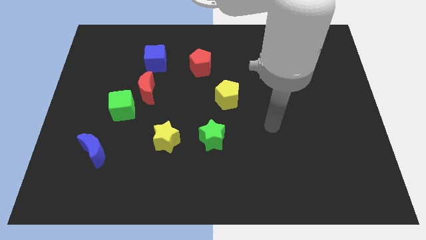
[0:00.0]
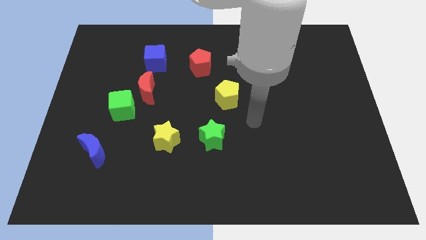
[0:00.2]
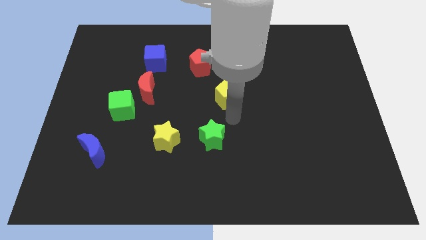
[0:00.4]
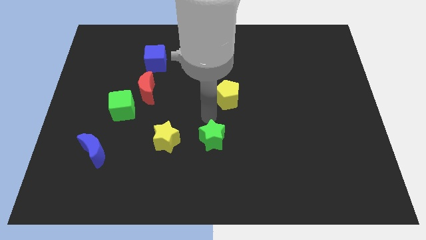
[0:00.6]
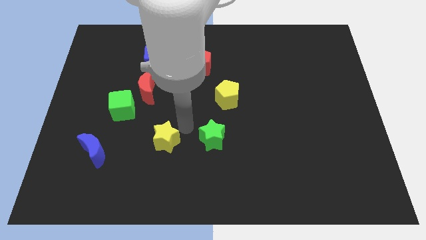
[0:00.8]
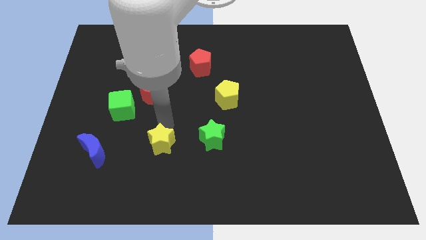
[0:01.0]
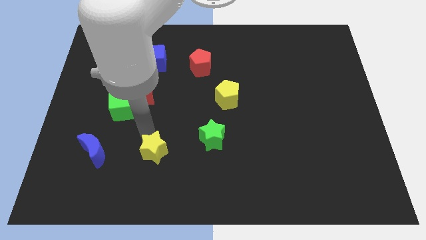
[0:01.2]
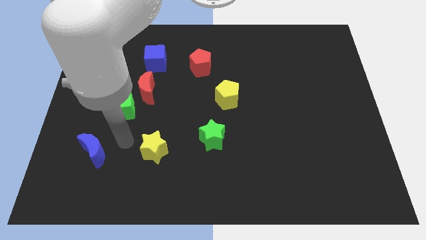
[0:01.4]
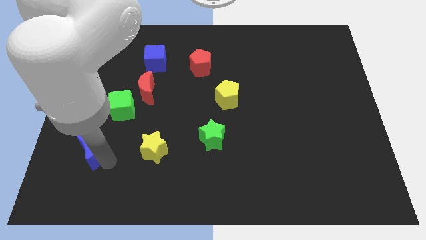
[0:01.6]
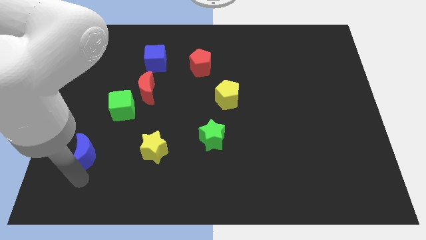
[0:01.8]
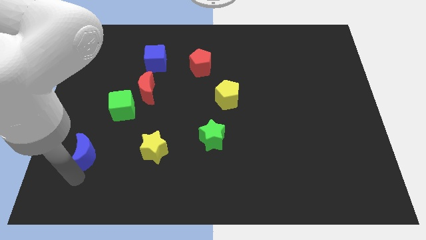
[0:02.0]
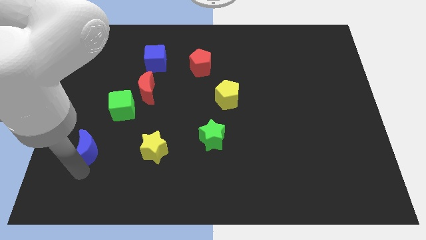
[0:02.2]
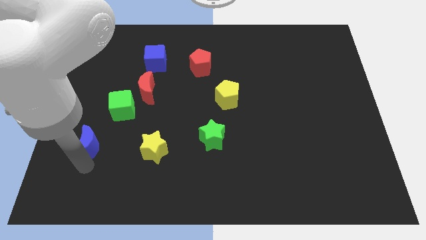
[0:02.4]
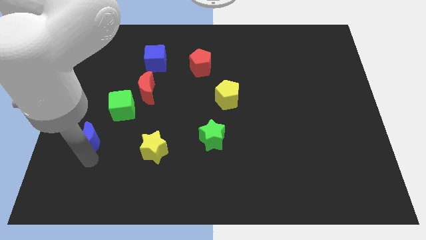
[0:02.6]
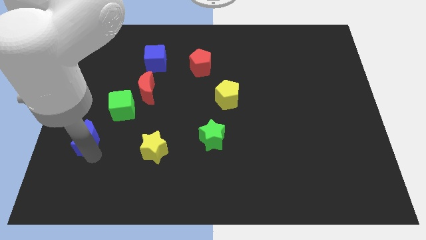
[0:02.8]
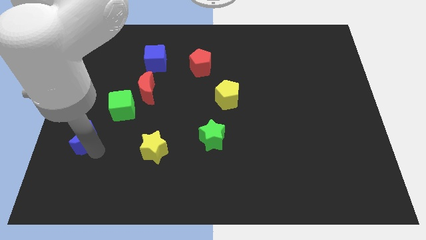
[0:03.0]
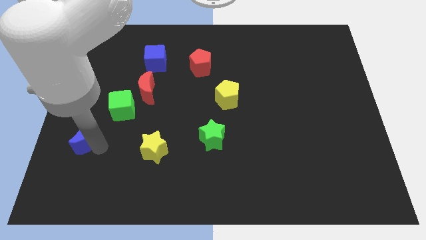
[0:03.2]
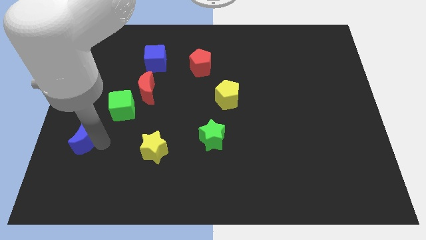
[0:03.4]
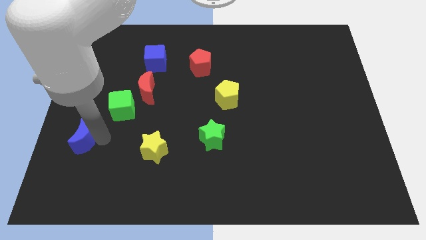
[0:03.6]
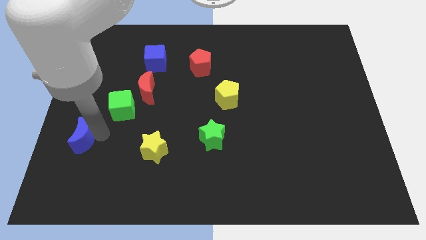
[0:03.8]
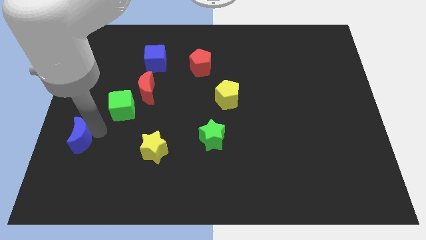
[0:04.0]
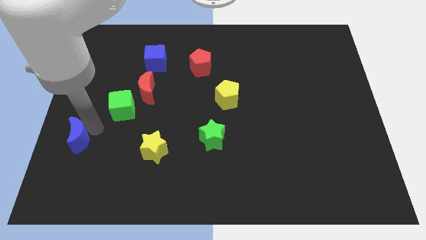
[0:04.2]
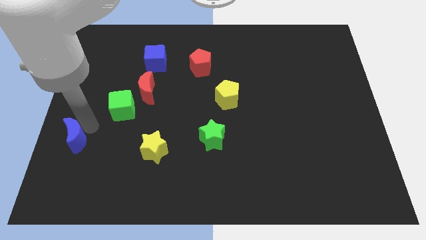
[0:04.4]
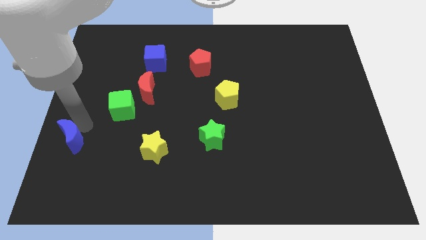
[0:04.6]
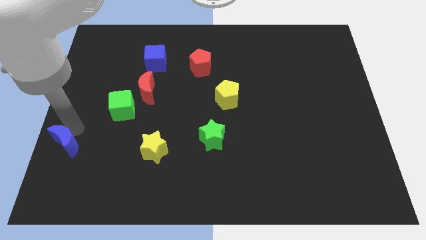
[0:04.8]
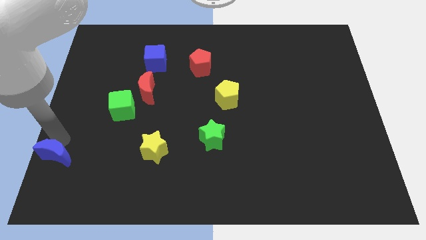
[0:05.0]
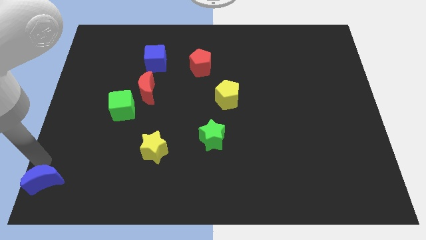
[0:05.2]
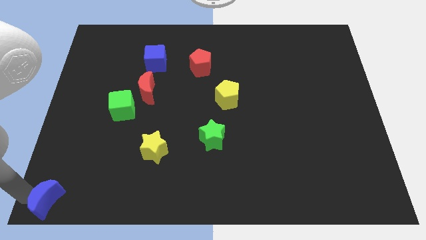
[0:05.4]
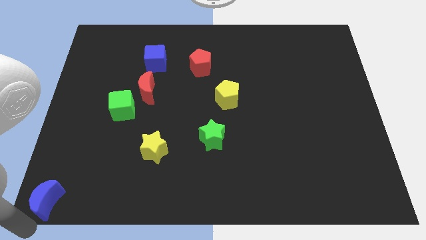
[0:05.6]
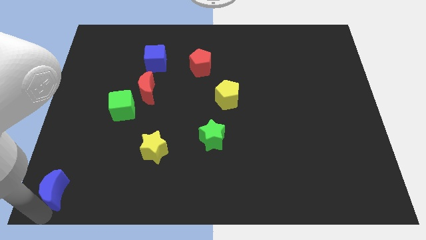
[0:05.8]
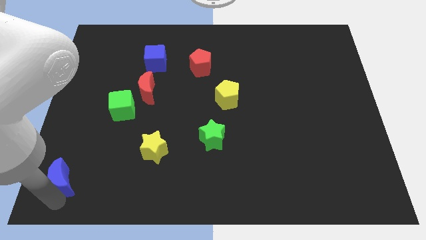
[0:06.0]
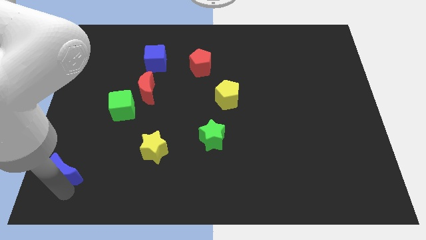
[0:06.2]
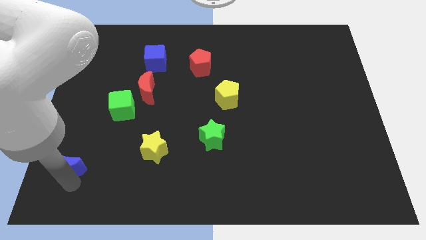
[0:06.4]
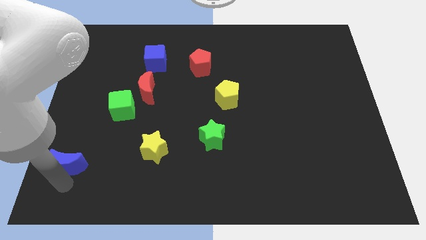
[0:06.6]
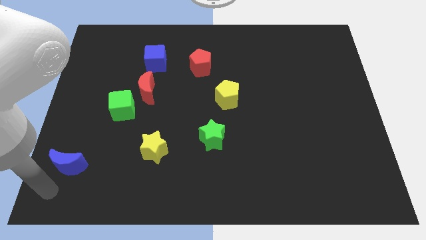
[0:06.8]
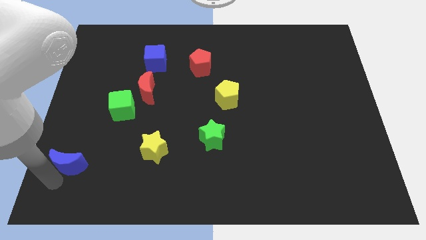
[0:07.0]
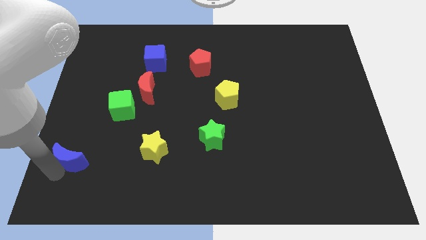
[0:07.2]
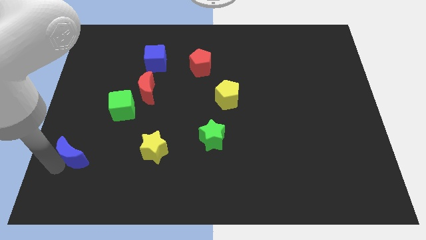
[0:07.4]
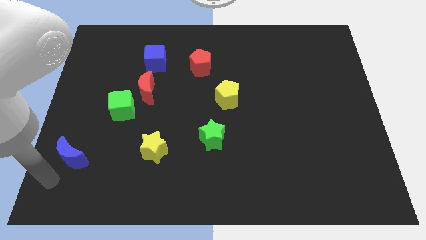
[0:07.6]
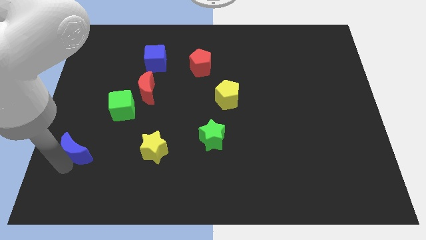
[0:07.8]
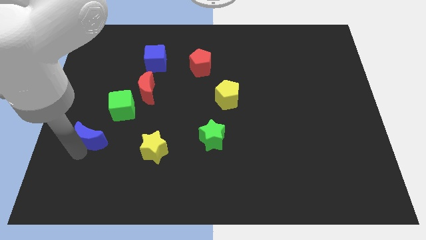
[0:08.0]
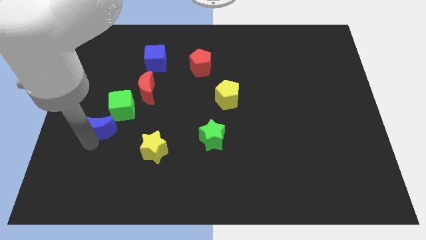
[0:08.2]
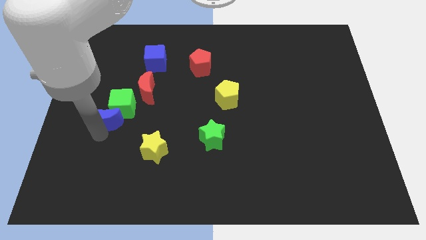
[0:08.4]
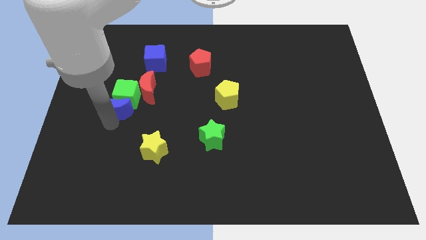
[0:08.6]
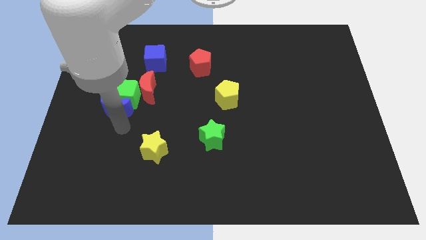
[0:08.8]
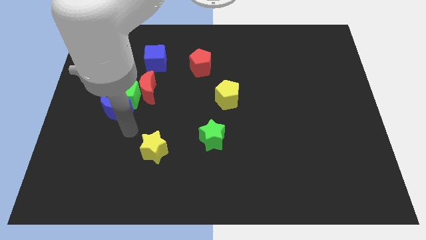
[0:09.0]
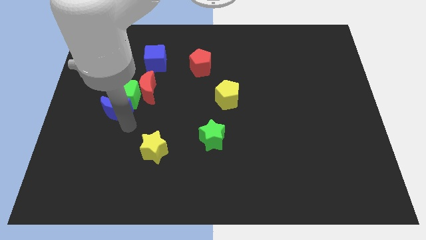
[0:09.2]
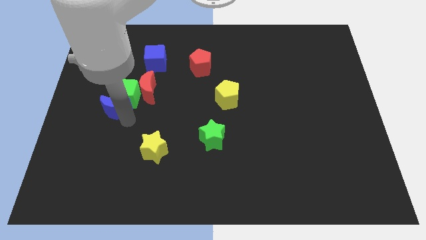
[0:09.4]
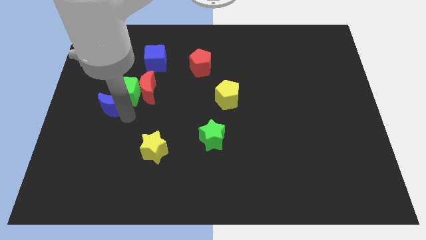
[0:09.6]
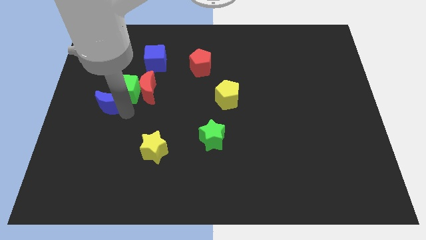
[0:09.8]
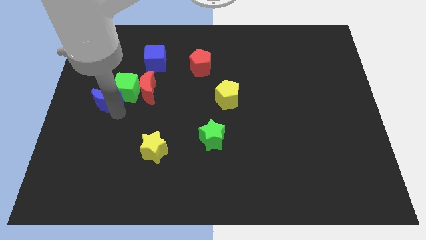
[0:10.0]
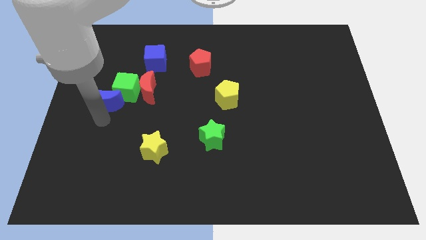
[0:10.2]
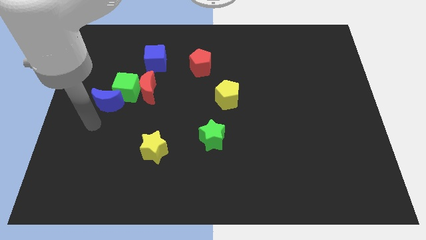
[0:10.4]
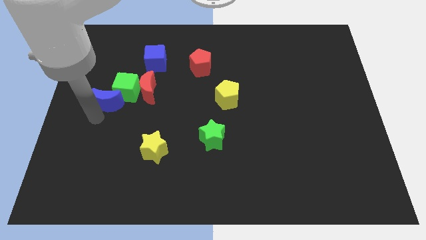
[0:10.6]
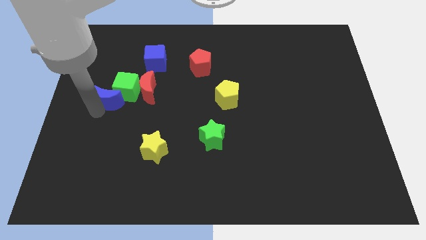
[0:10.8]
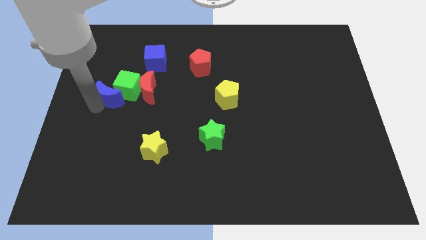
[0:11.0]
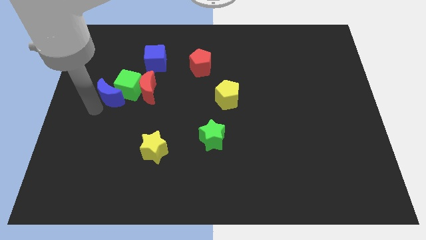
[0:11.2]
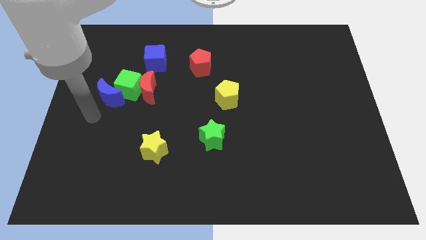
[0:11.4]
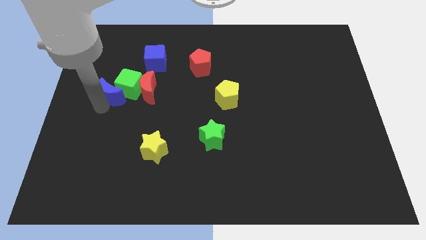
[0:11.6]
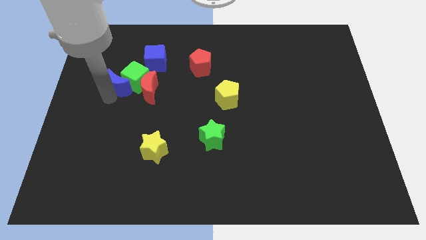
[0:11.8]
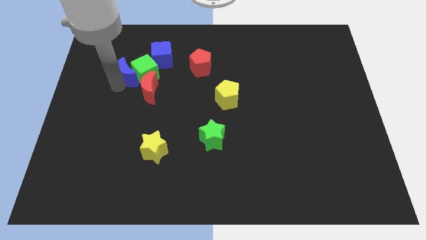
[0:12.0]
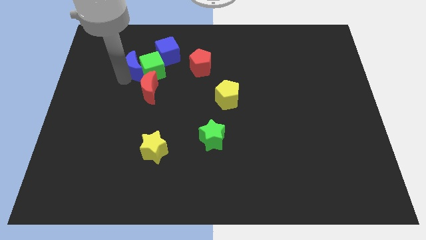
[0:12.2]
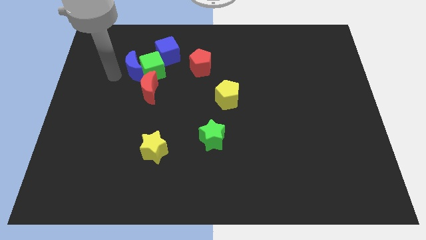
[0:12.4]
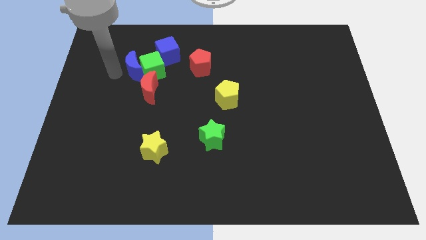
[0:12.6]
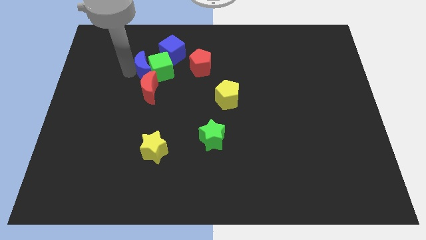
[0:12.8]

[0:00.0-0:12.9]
move the blue moon left of the red pentagon

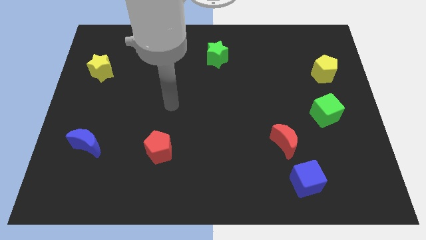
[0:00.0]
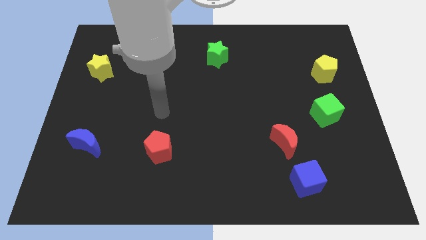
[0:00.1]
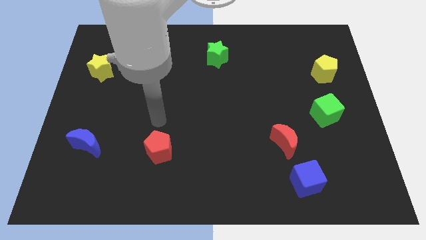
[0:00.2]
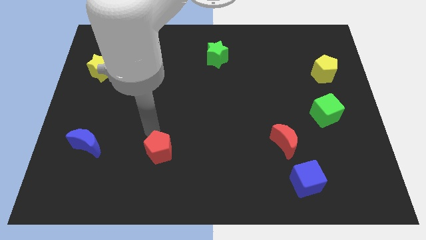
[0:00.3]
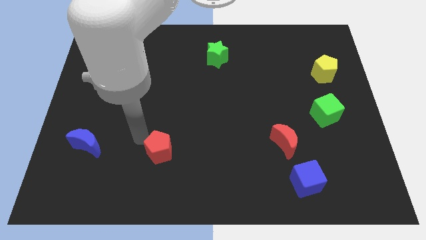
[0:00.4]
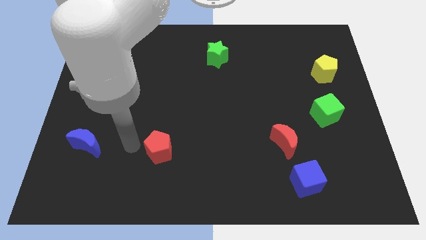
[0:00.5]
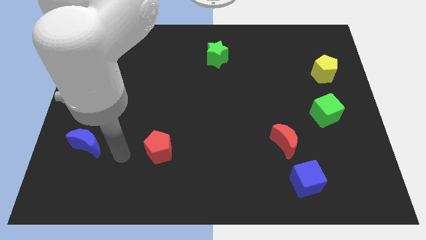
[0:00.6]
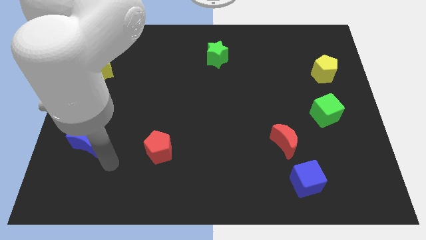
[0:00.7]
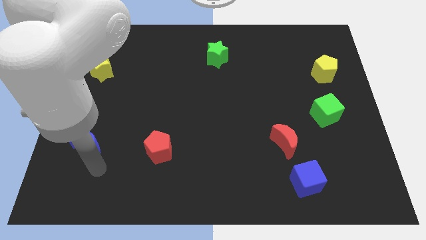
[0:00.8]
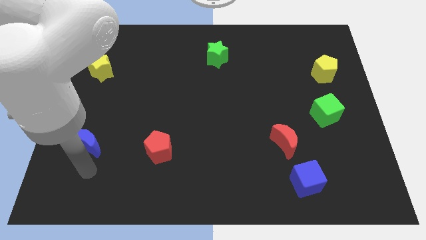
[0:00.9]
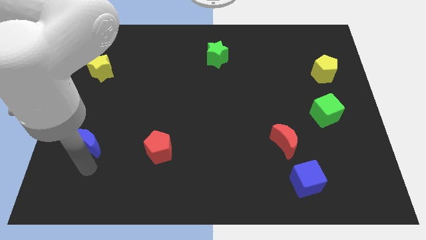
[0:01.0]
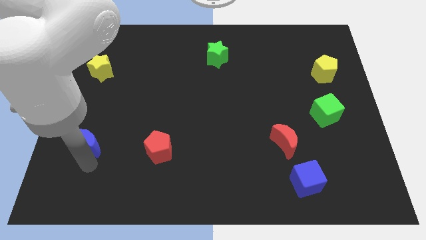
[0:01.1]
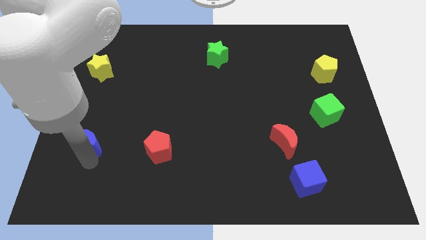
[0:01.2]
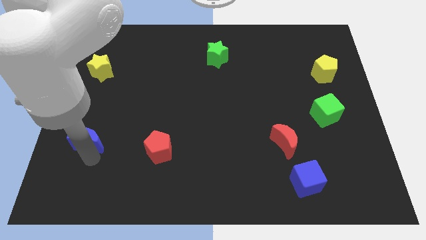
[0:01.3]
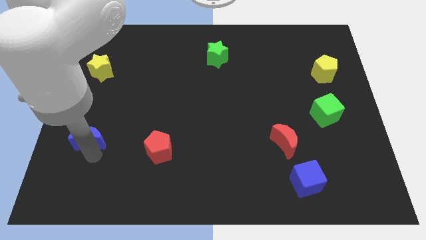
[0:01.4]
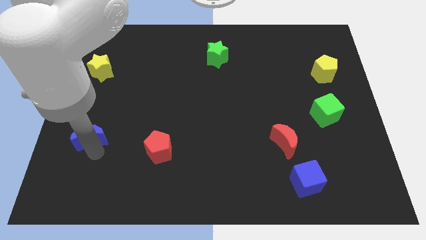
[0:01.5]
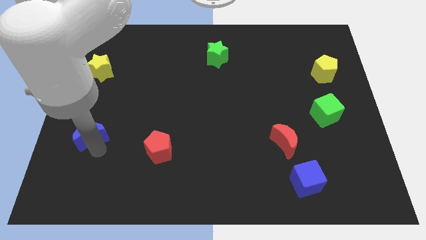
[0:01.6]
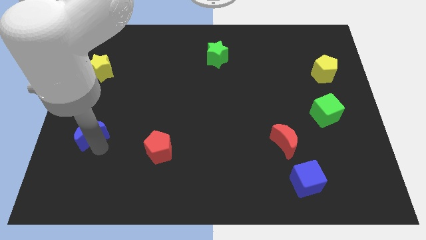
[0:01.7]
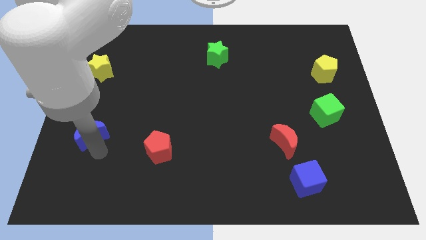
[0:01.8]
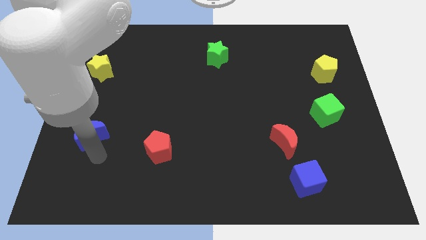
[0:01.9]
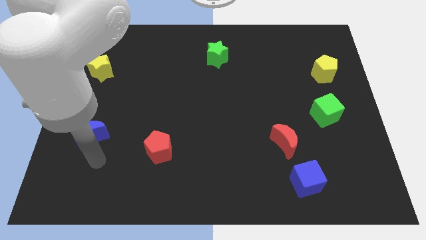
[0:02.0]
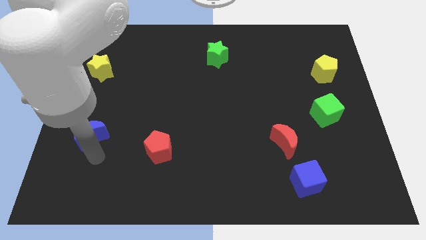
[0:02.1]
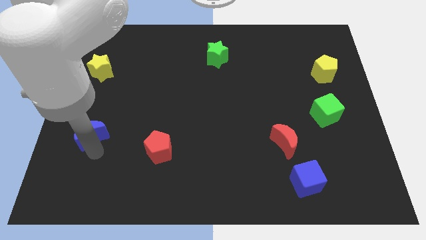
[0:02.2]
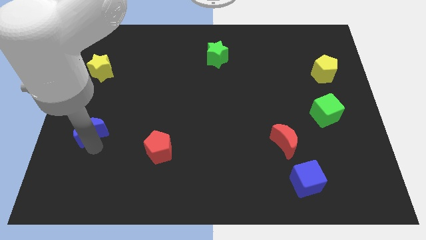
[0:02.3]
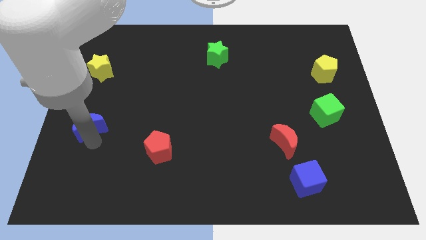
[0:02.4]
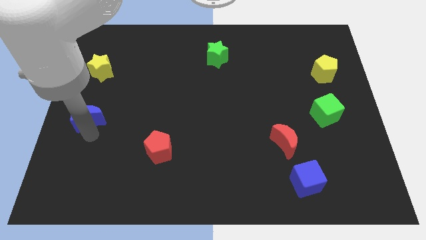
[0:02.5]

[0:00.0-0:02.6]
move the blue moon below the yellow star
